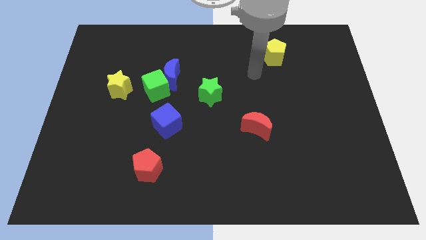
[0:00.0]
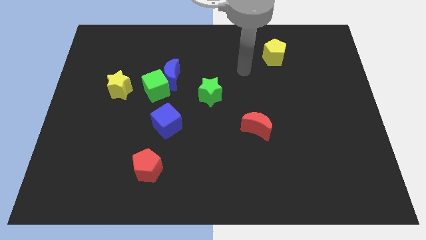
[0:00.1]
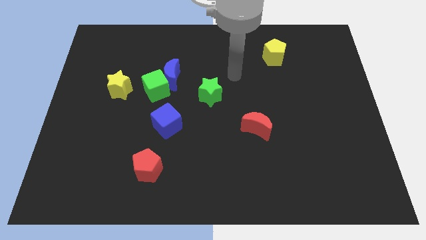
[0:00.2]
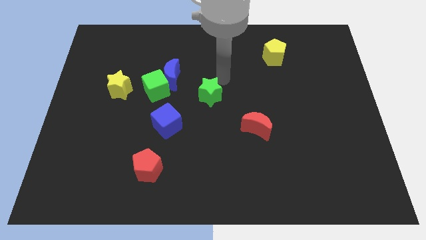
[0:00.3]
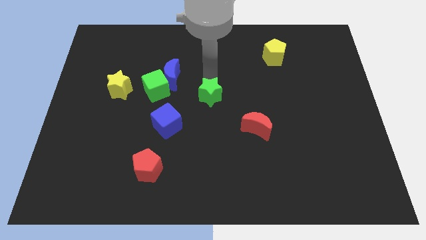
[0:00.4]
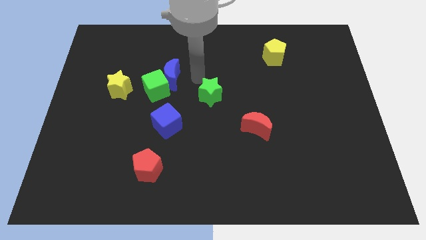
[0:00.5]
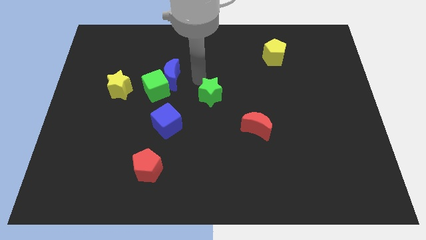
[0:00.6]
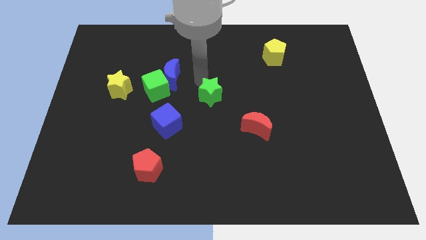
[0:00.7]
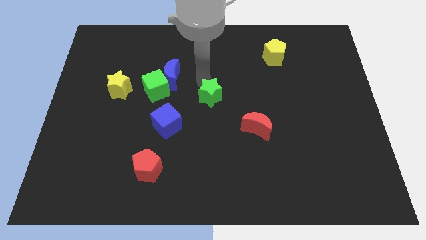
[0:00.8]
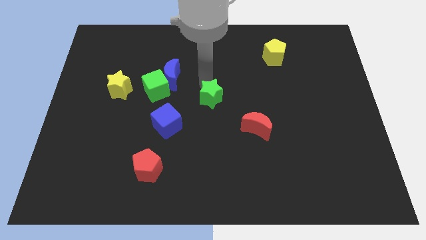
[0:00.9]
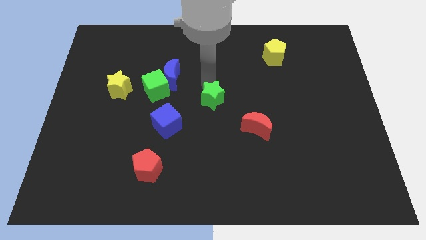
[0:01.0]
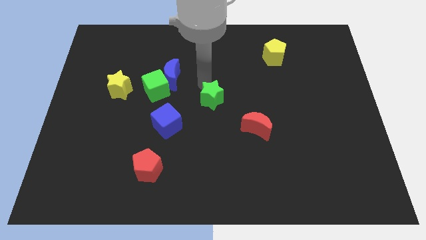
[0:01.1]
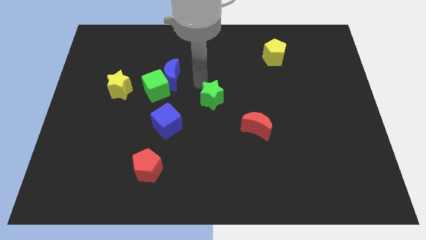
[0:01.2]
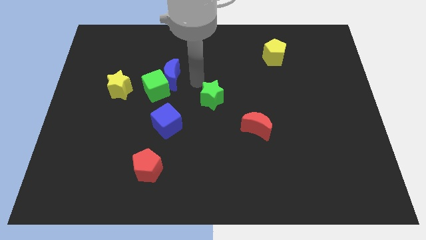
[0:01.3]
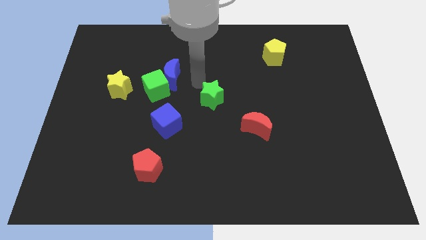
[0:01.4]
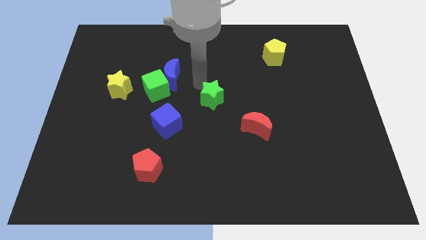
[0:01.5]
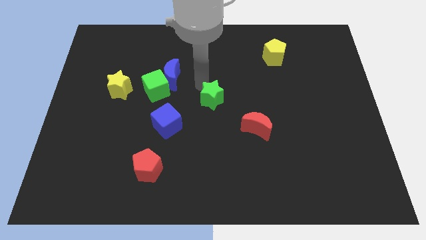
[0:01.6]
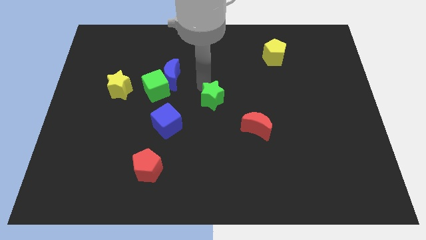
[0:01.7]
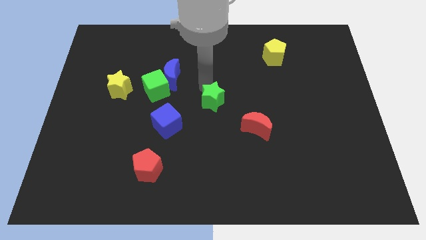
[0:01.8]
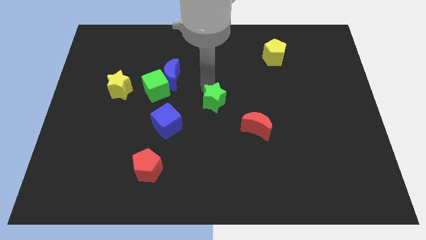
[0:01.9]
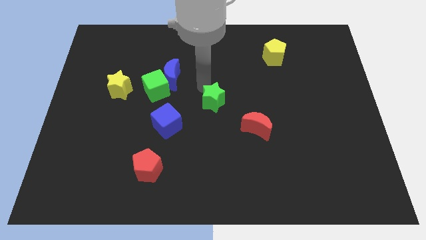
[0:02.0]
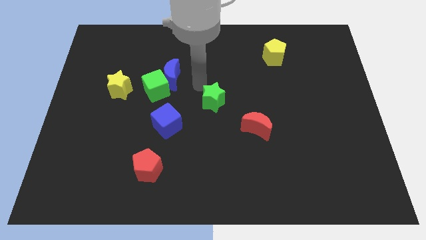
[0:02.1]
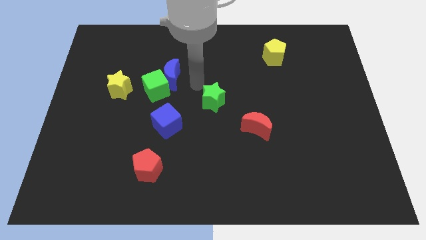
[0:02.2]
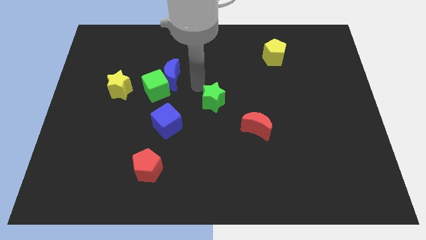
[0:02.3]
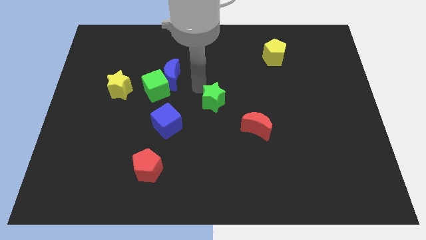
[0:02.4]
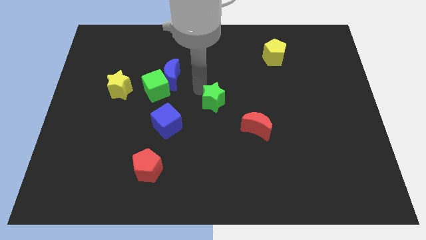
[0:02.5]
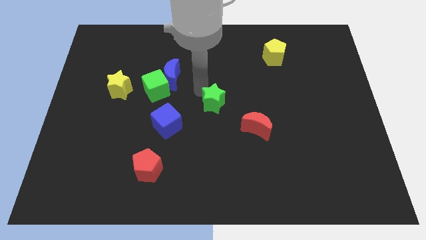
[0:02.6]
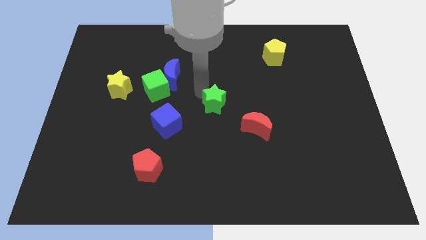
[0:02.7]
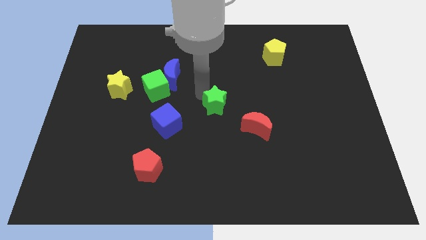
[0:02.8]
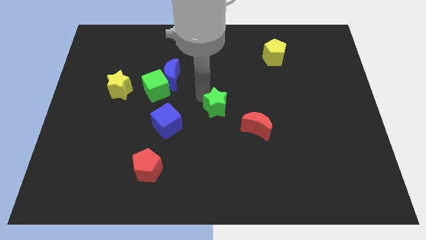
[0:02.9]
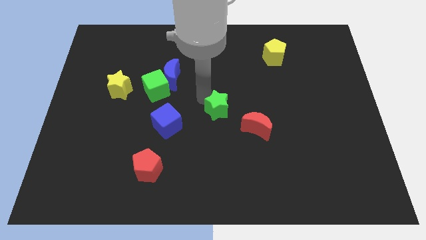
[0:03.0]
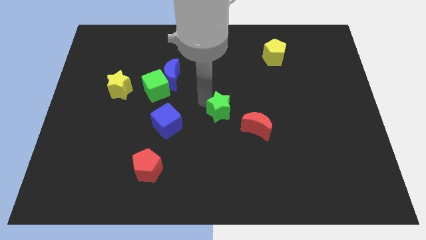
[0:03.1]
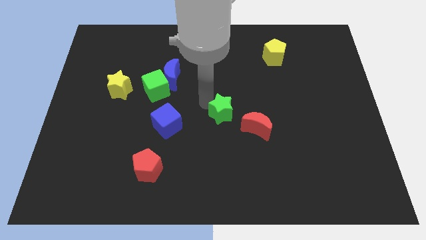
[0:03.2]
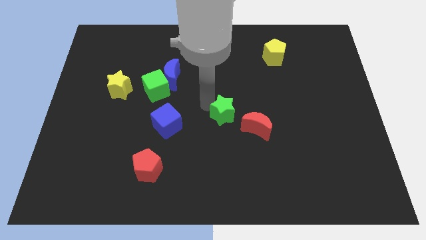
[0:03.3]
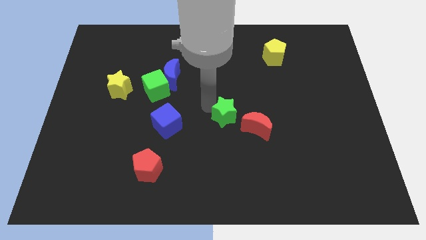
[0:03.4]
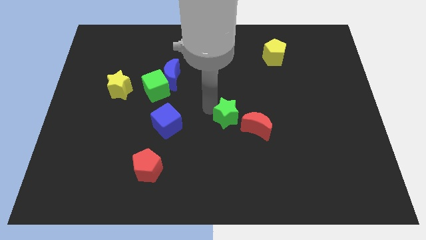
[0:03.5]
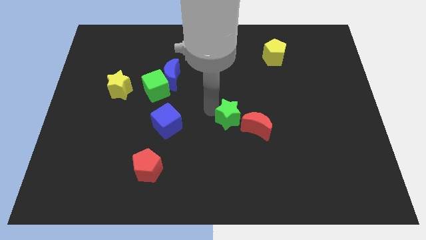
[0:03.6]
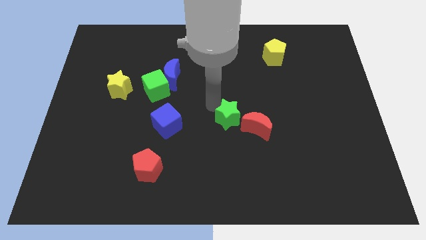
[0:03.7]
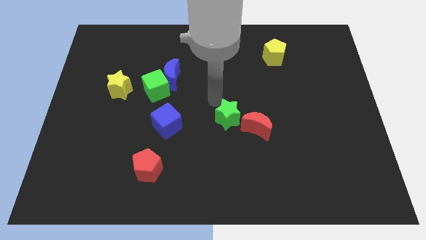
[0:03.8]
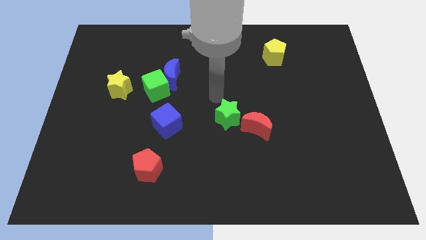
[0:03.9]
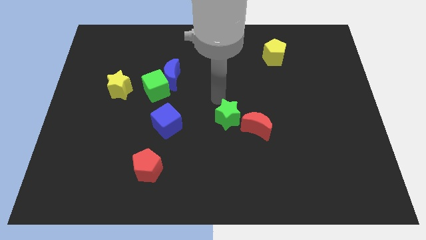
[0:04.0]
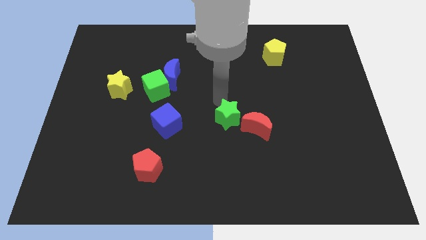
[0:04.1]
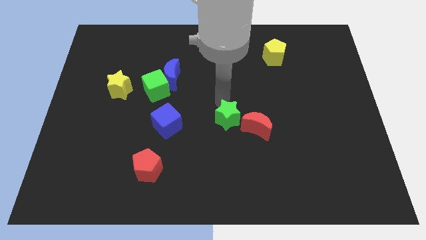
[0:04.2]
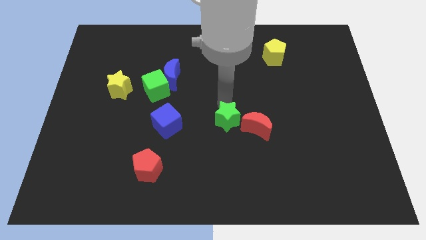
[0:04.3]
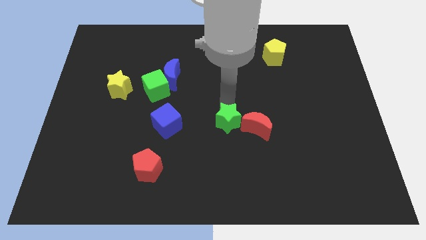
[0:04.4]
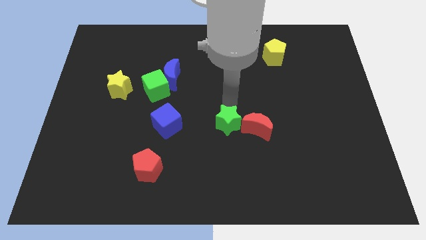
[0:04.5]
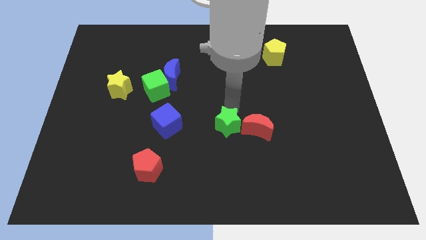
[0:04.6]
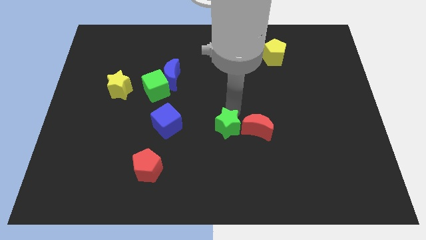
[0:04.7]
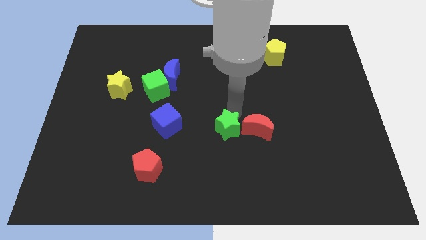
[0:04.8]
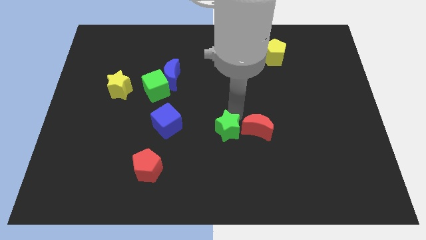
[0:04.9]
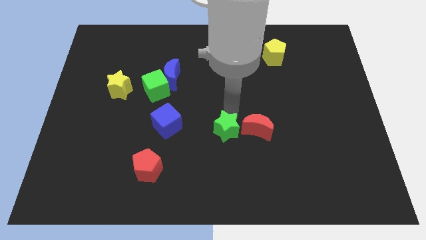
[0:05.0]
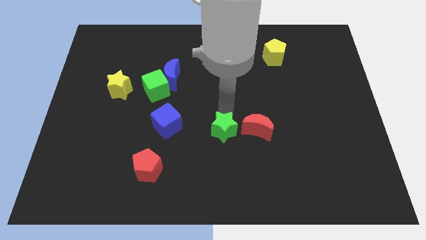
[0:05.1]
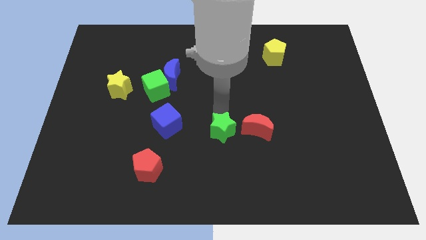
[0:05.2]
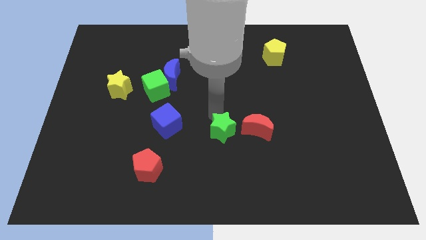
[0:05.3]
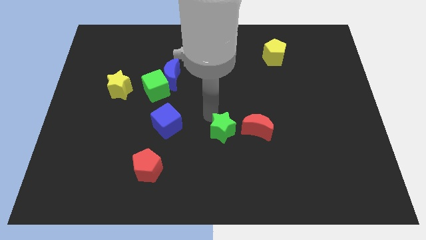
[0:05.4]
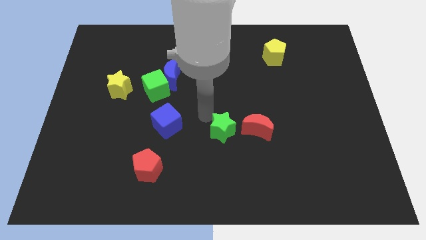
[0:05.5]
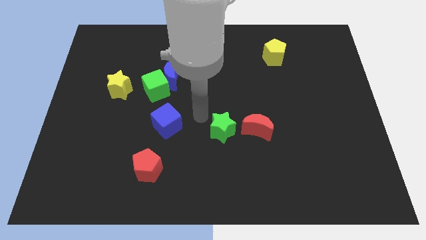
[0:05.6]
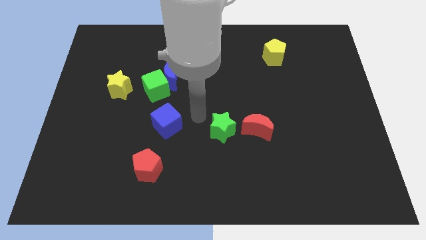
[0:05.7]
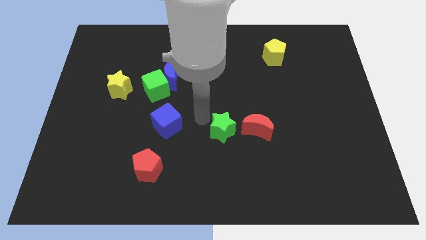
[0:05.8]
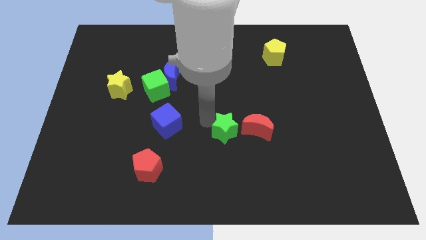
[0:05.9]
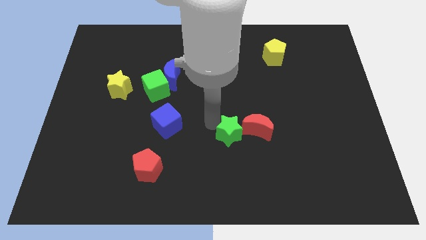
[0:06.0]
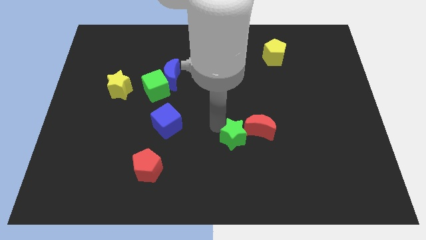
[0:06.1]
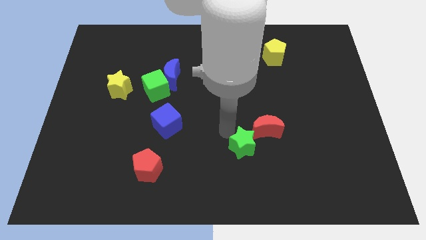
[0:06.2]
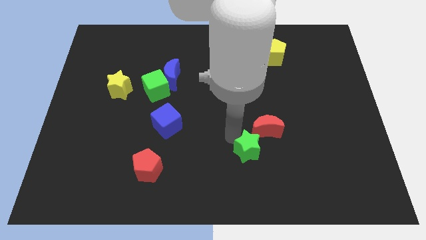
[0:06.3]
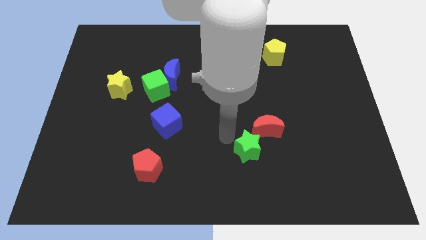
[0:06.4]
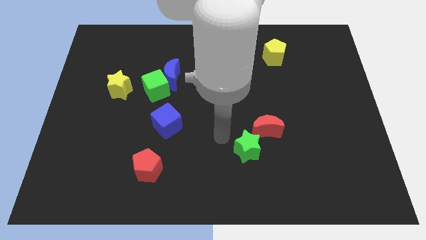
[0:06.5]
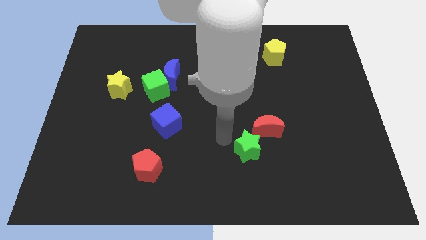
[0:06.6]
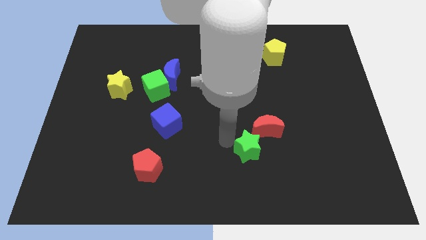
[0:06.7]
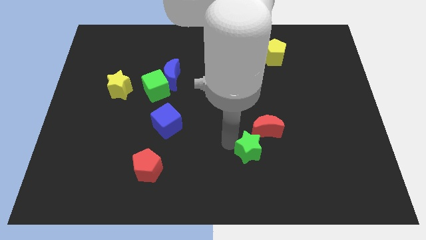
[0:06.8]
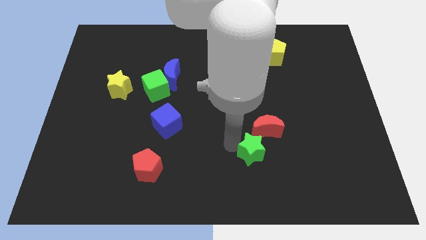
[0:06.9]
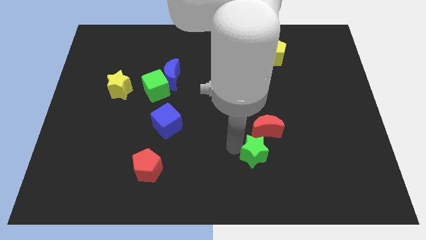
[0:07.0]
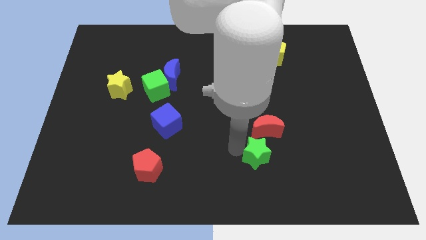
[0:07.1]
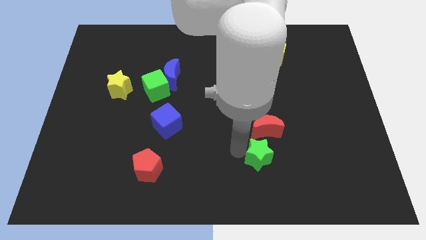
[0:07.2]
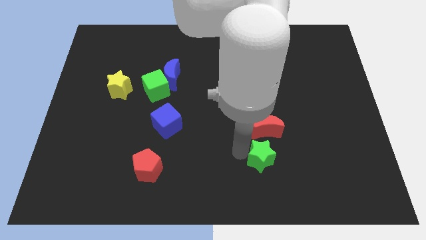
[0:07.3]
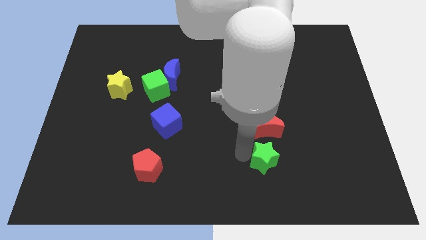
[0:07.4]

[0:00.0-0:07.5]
move the green star downwards and right

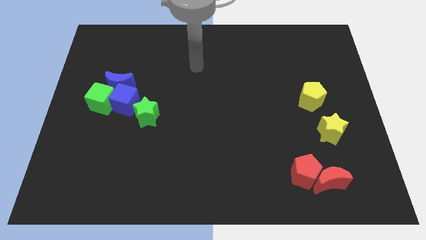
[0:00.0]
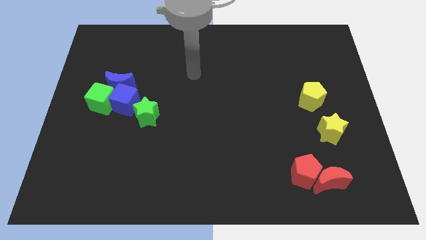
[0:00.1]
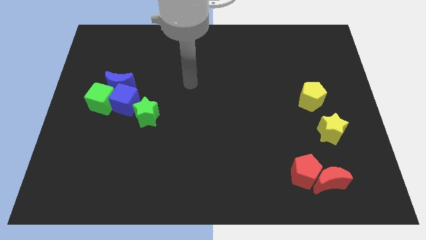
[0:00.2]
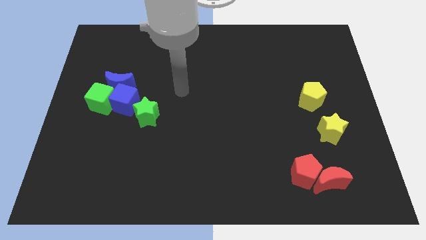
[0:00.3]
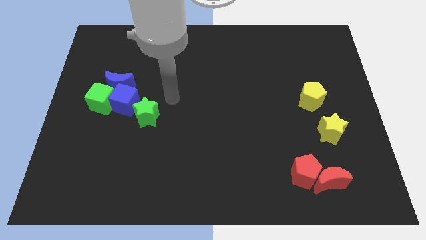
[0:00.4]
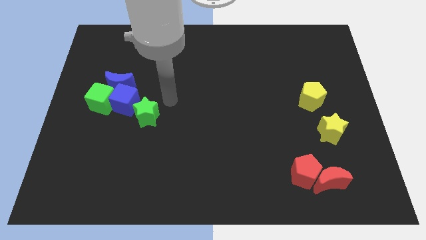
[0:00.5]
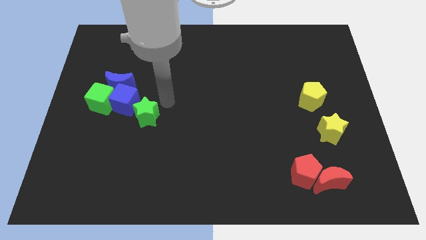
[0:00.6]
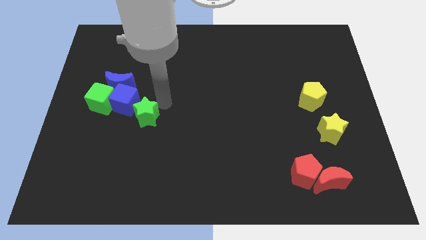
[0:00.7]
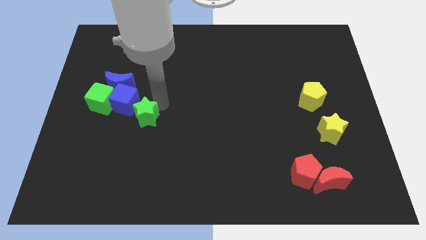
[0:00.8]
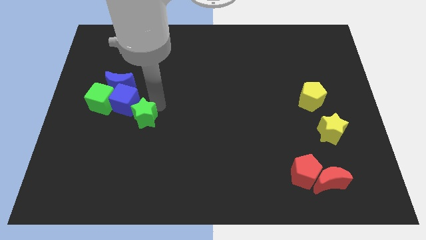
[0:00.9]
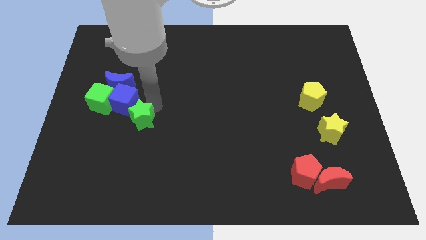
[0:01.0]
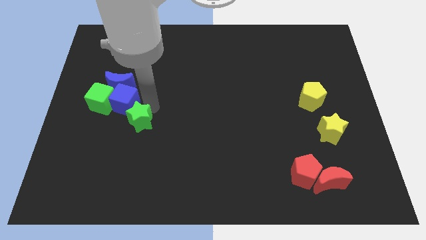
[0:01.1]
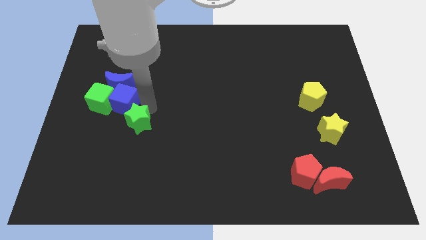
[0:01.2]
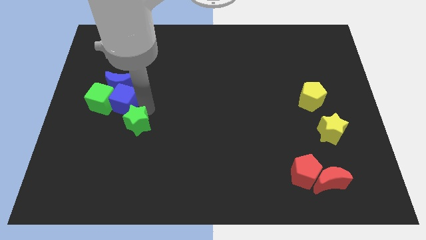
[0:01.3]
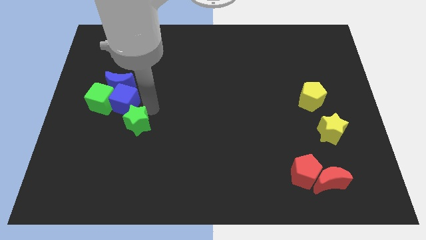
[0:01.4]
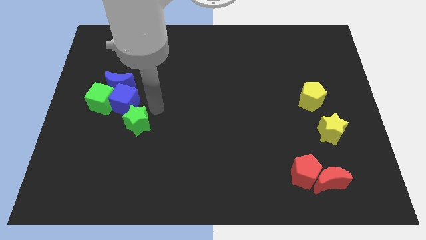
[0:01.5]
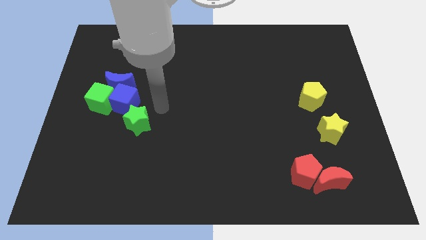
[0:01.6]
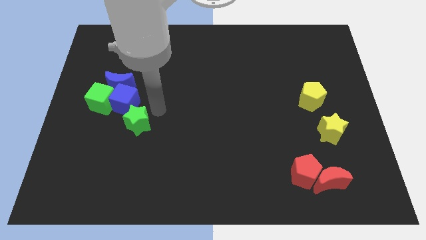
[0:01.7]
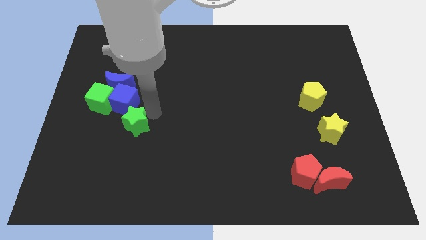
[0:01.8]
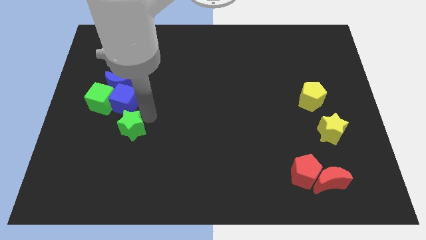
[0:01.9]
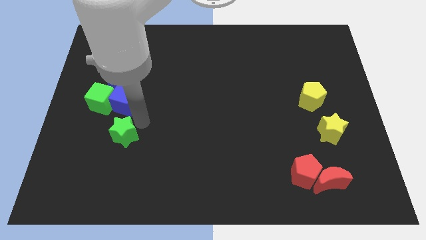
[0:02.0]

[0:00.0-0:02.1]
slightly push the green star diagonally down and to the left
